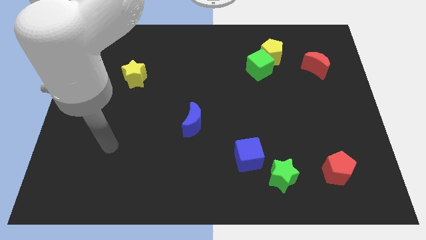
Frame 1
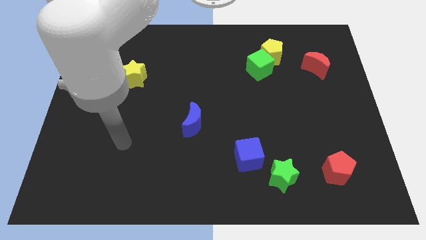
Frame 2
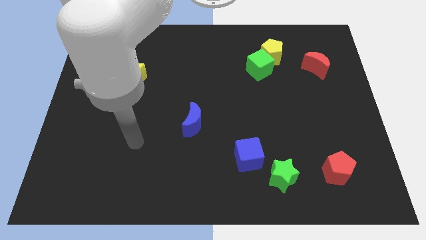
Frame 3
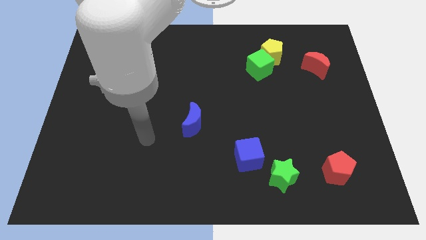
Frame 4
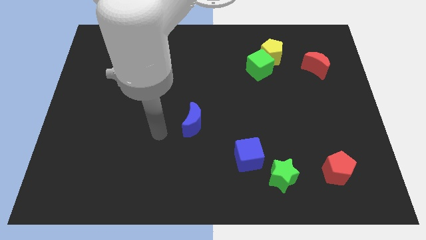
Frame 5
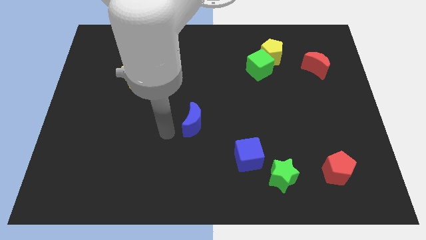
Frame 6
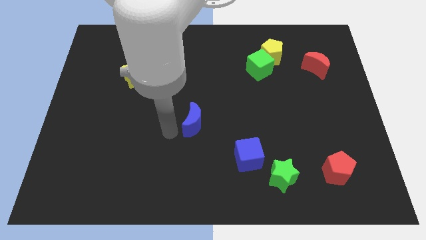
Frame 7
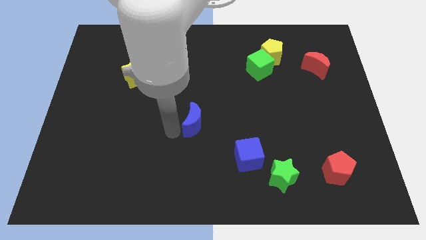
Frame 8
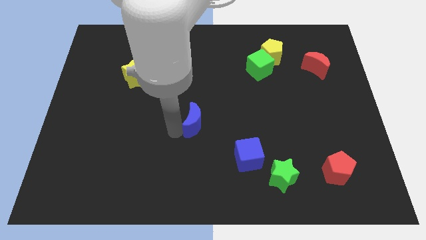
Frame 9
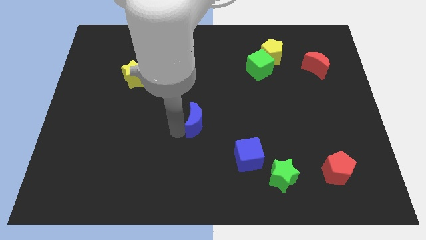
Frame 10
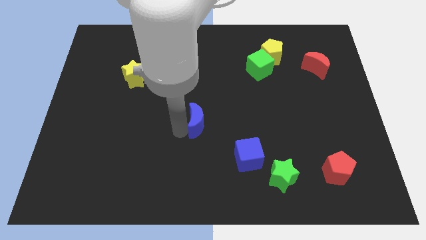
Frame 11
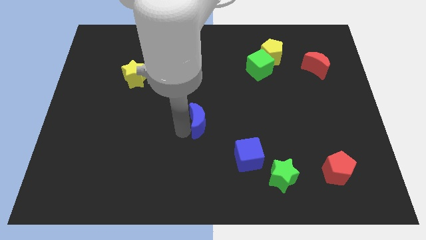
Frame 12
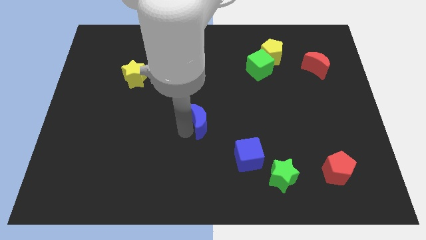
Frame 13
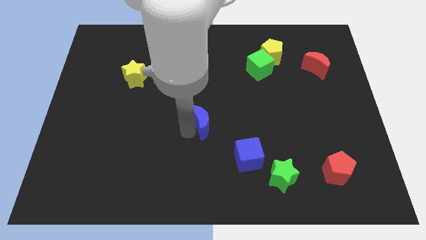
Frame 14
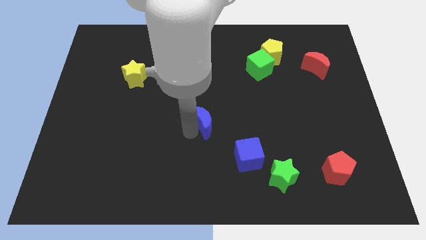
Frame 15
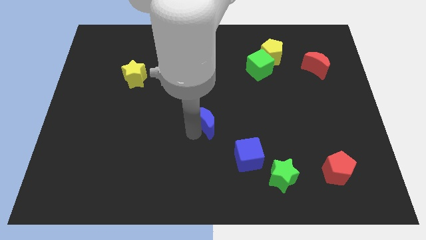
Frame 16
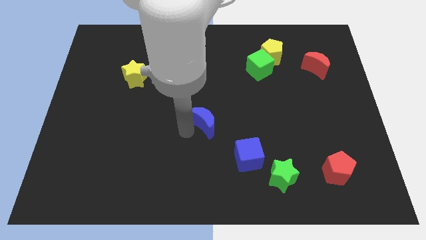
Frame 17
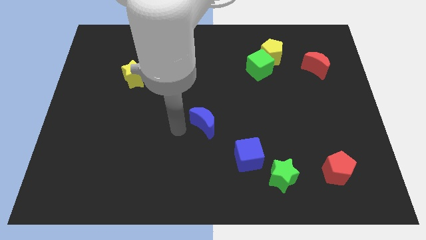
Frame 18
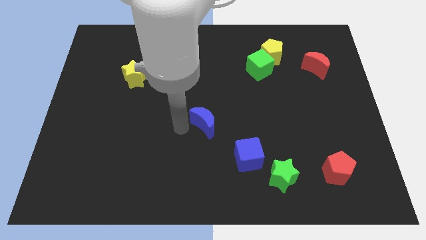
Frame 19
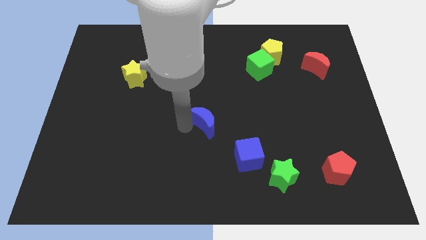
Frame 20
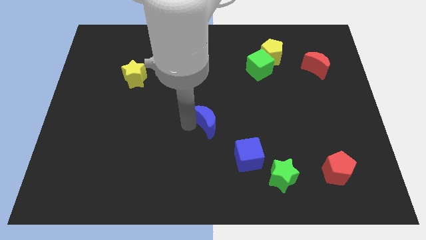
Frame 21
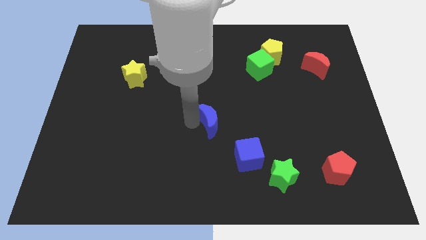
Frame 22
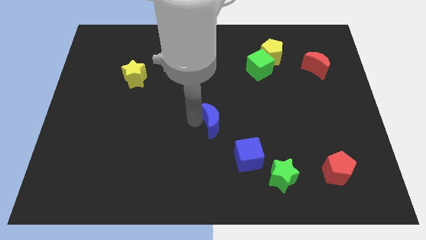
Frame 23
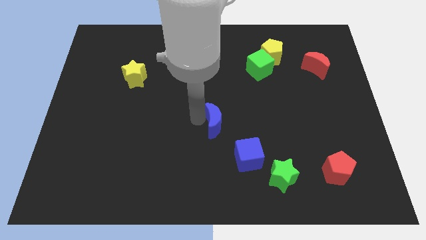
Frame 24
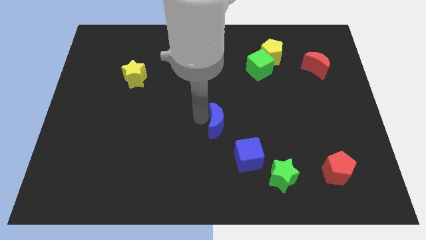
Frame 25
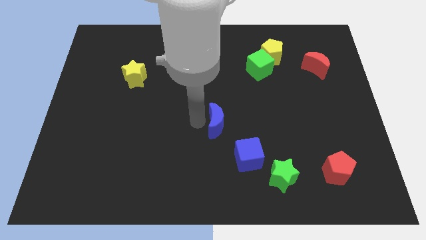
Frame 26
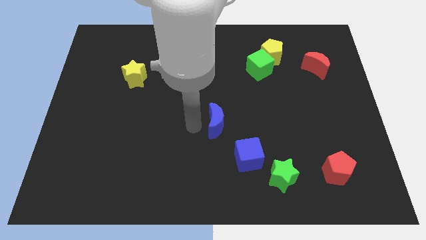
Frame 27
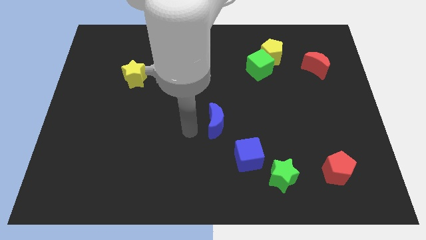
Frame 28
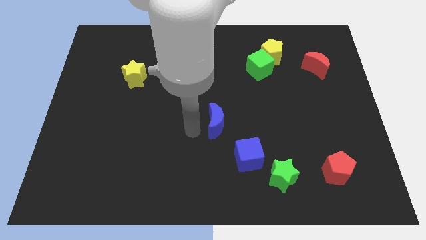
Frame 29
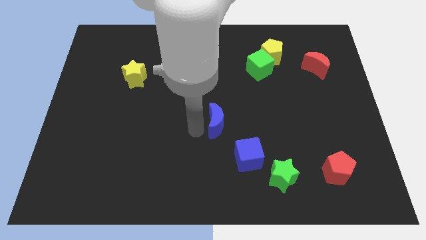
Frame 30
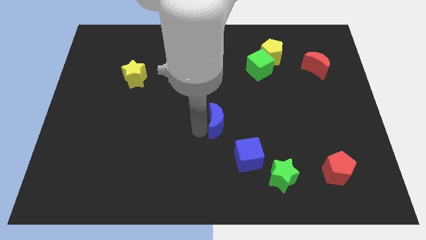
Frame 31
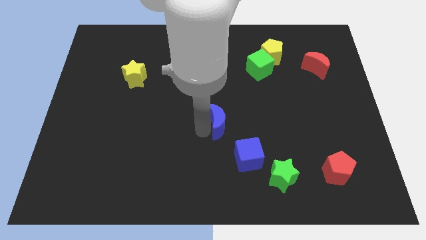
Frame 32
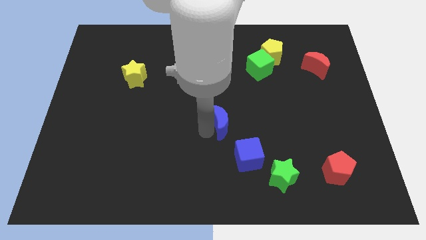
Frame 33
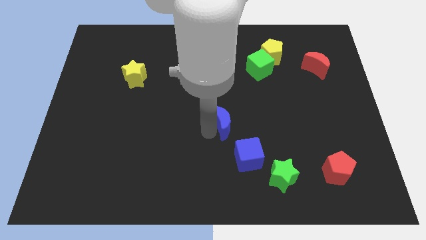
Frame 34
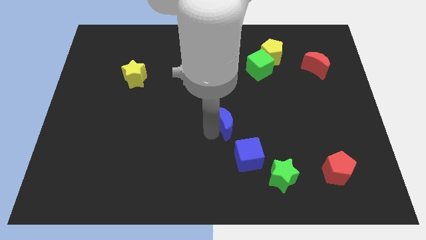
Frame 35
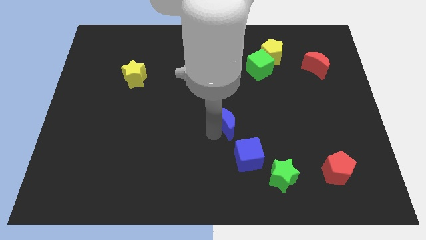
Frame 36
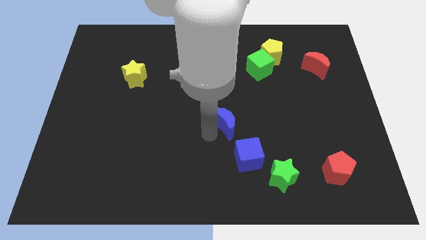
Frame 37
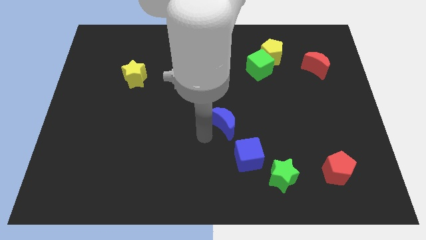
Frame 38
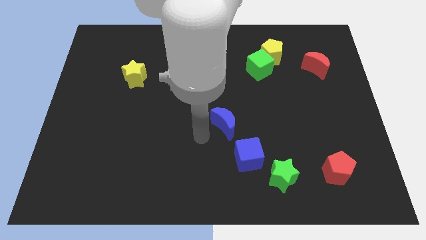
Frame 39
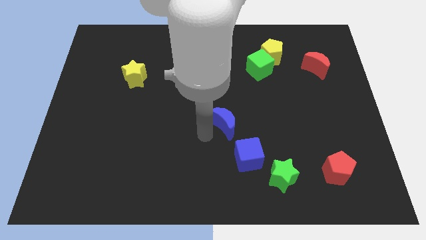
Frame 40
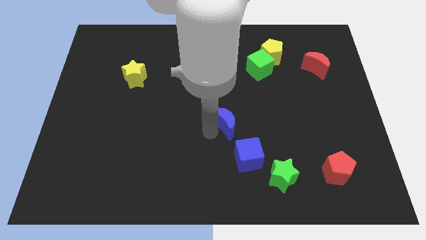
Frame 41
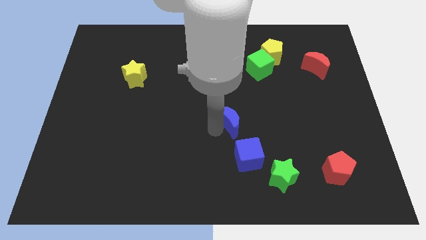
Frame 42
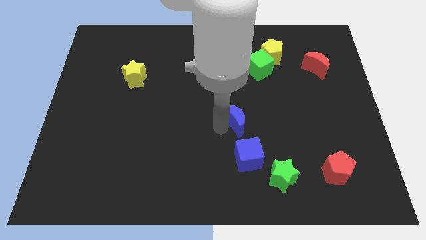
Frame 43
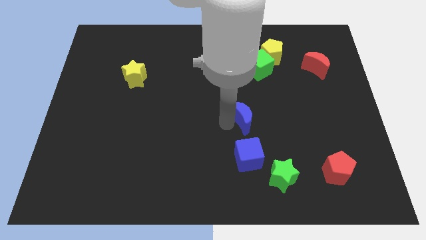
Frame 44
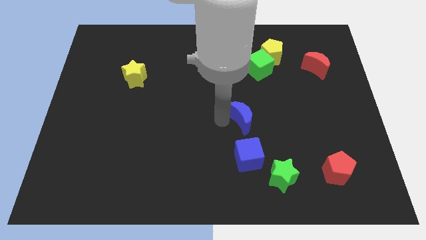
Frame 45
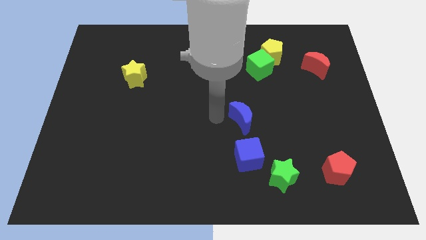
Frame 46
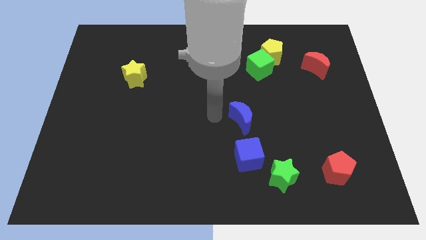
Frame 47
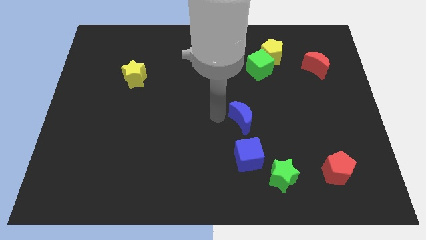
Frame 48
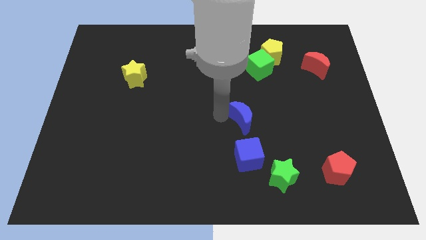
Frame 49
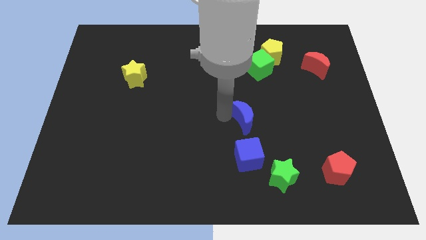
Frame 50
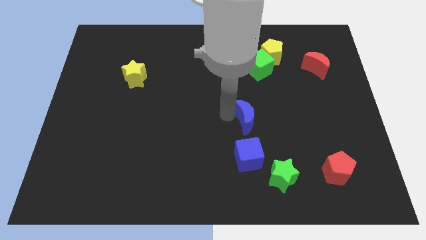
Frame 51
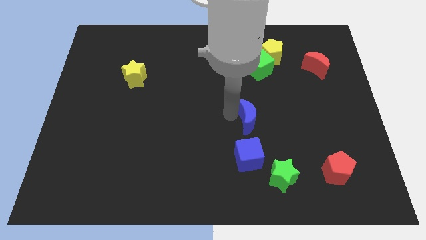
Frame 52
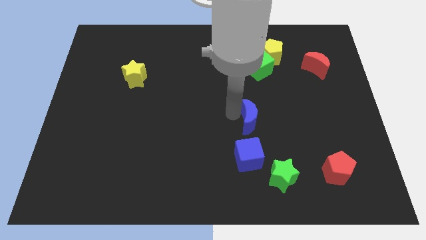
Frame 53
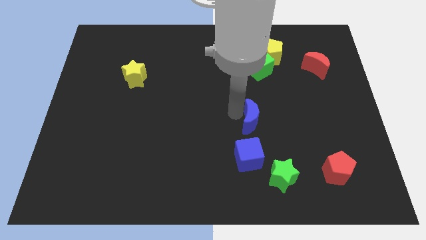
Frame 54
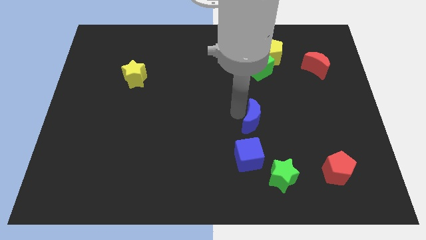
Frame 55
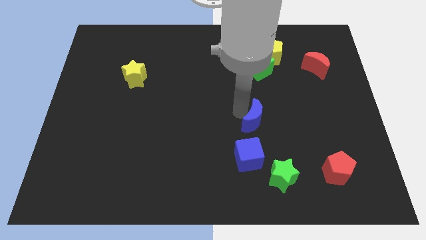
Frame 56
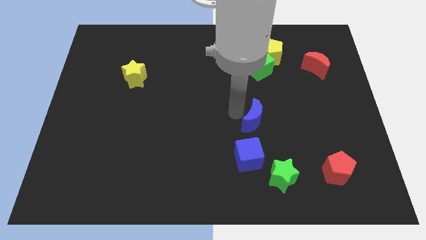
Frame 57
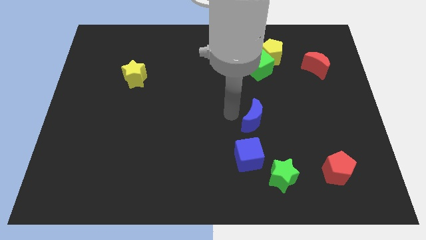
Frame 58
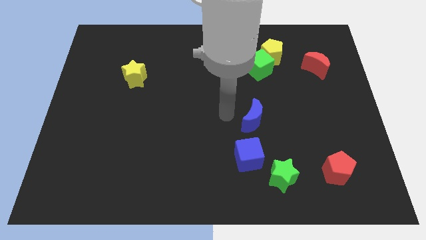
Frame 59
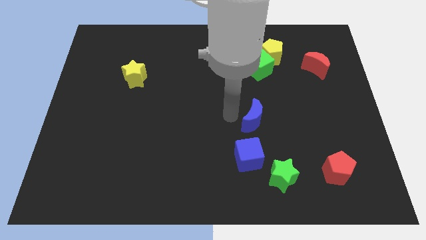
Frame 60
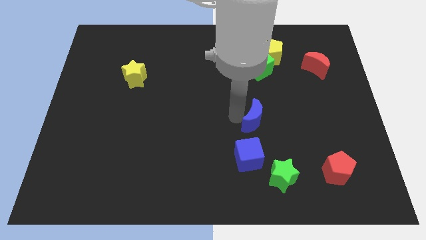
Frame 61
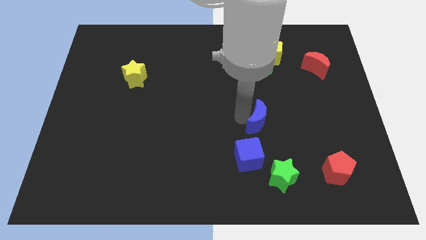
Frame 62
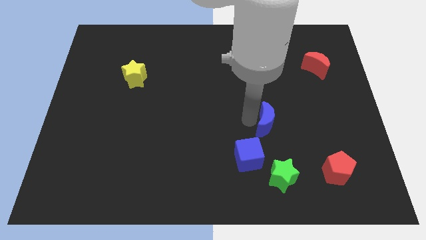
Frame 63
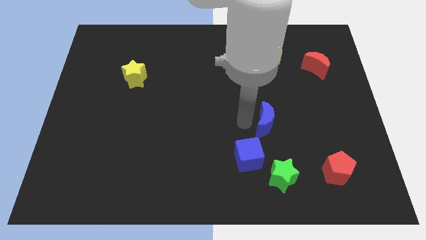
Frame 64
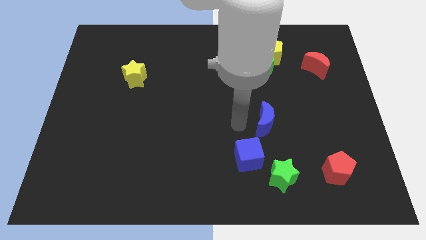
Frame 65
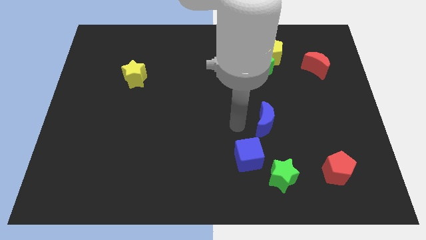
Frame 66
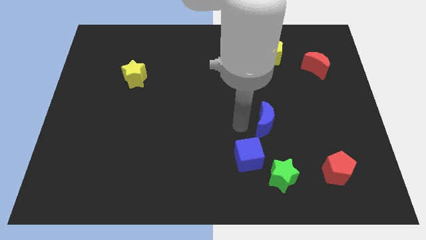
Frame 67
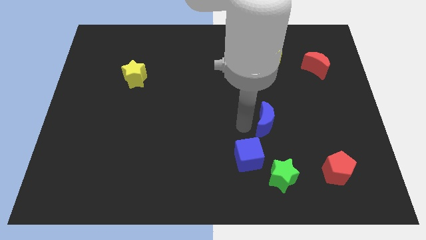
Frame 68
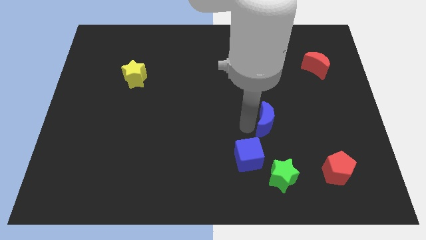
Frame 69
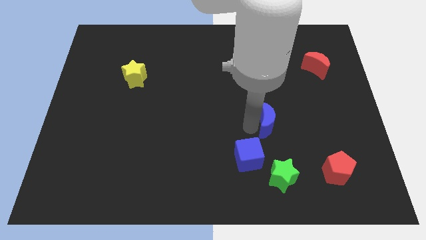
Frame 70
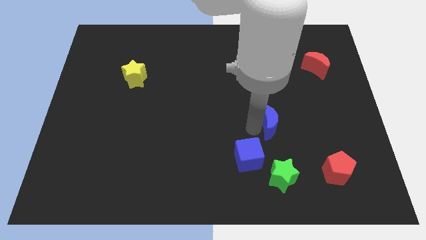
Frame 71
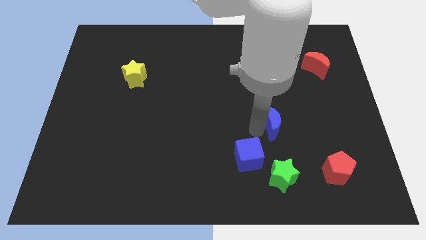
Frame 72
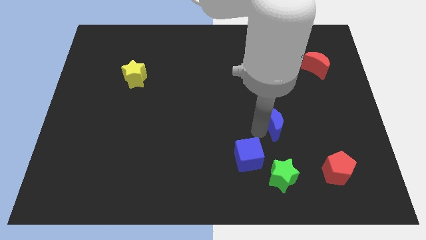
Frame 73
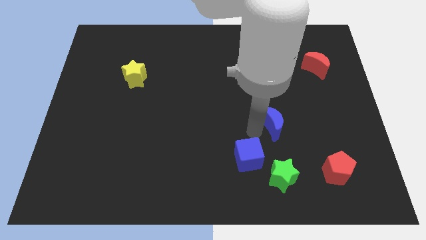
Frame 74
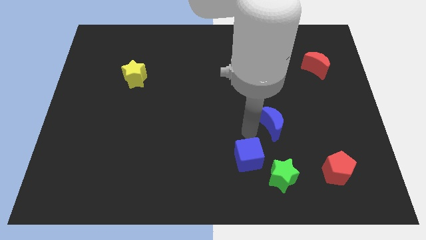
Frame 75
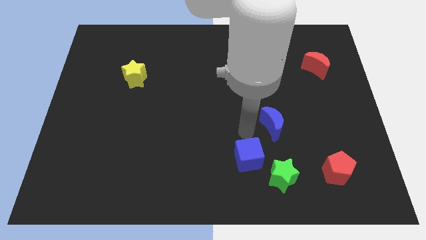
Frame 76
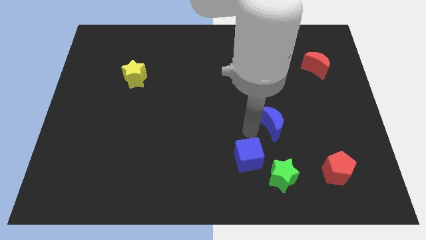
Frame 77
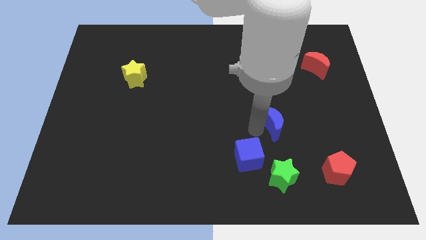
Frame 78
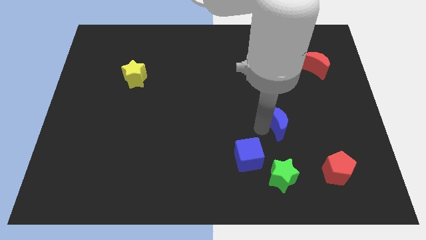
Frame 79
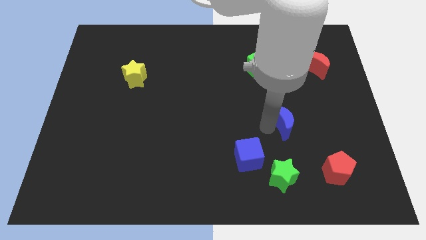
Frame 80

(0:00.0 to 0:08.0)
move the blue moon right
